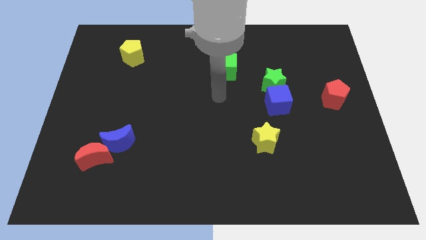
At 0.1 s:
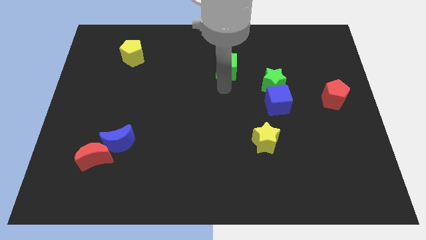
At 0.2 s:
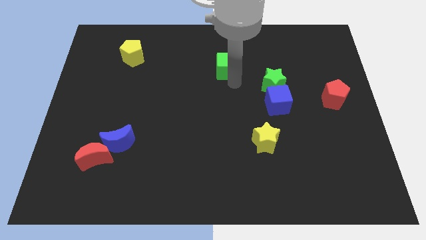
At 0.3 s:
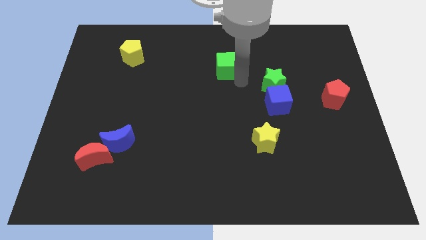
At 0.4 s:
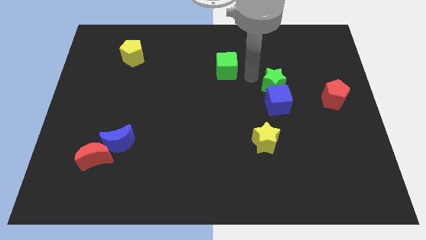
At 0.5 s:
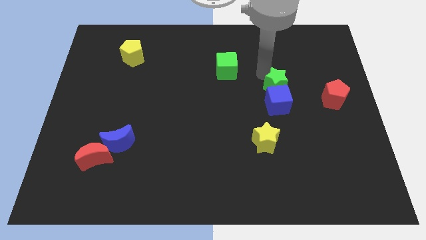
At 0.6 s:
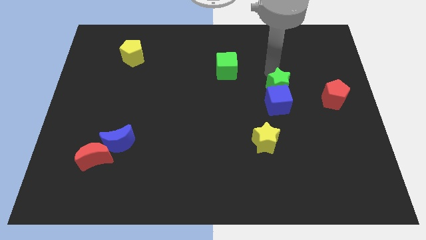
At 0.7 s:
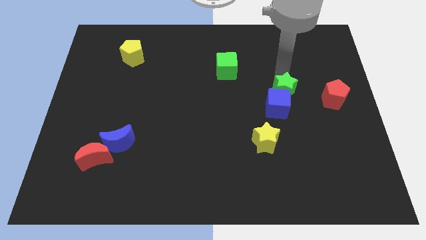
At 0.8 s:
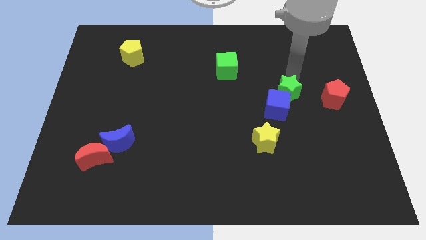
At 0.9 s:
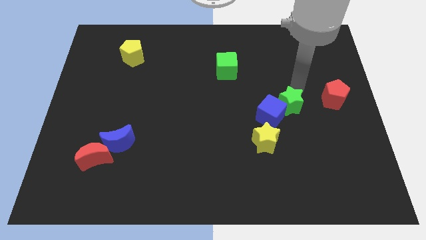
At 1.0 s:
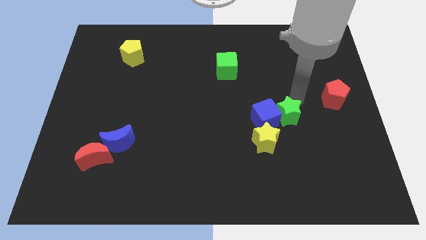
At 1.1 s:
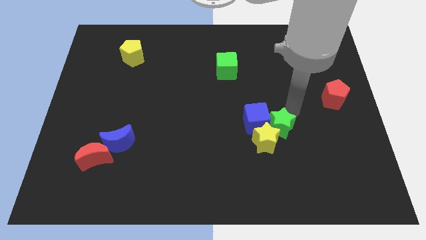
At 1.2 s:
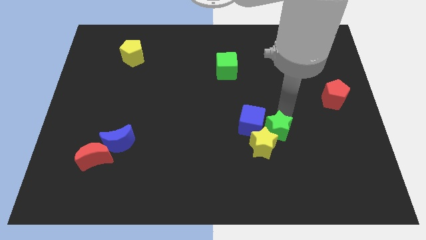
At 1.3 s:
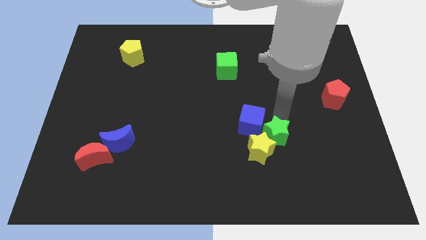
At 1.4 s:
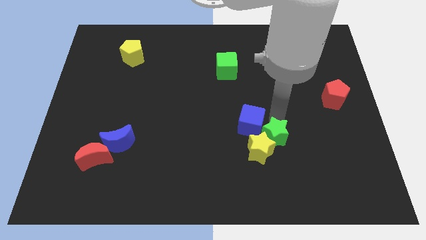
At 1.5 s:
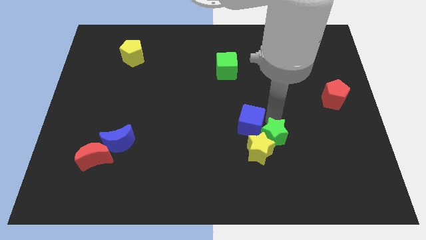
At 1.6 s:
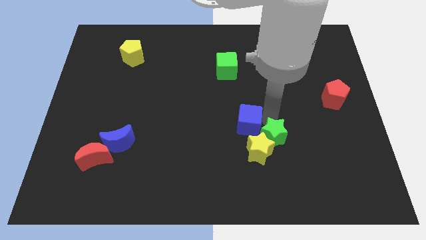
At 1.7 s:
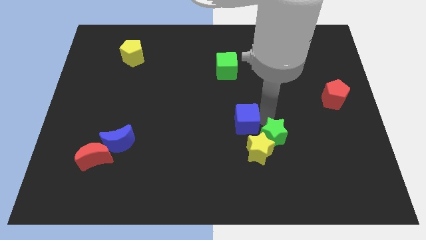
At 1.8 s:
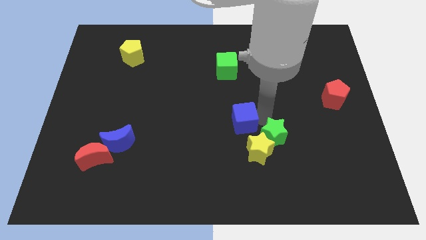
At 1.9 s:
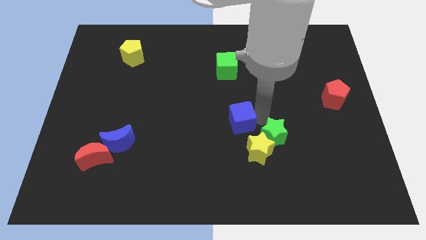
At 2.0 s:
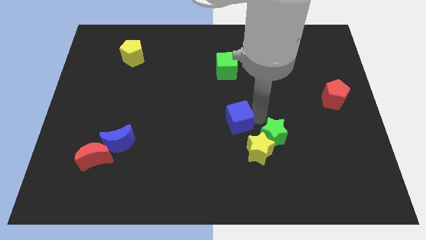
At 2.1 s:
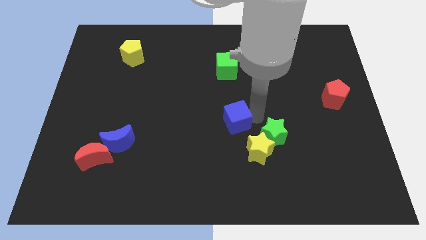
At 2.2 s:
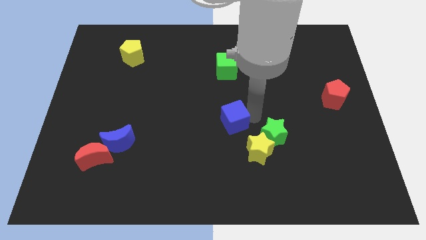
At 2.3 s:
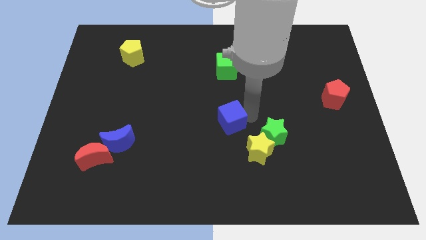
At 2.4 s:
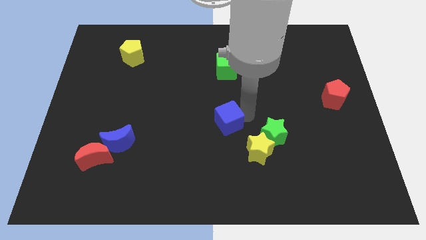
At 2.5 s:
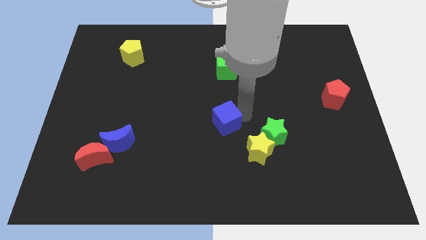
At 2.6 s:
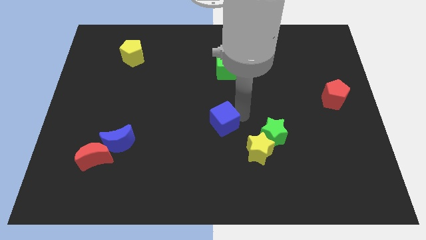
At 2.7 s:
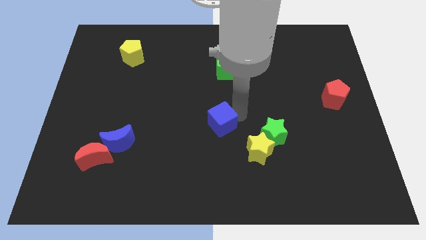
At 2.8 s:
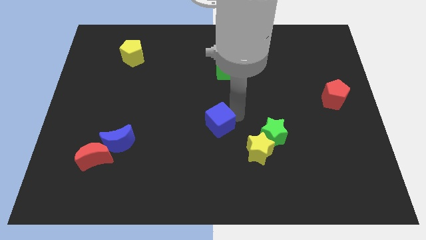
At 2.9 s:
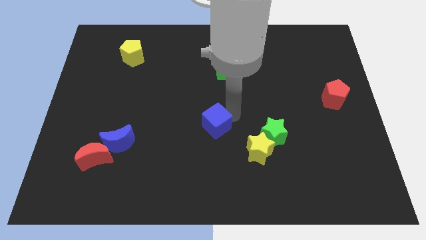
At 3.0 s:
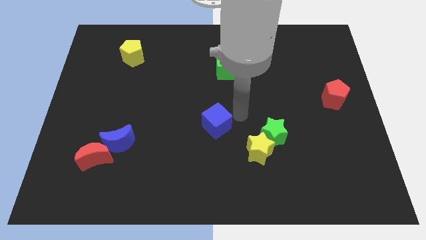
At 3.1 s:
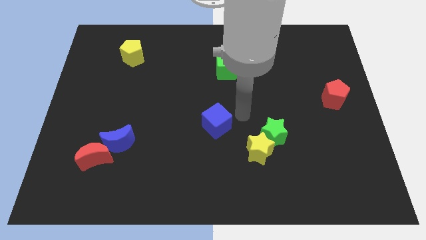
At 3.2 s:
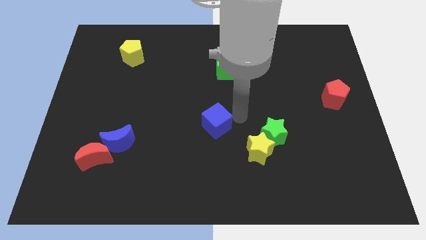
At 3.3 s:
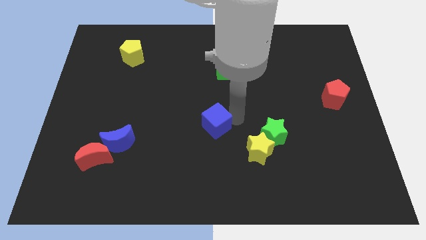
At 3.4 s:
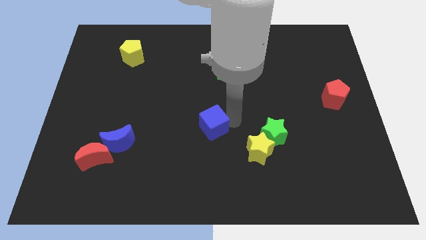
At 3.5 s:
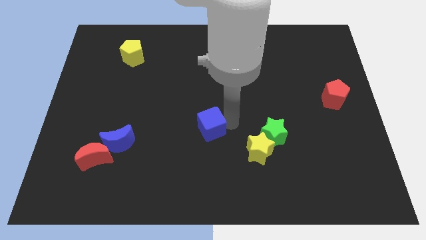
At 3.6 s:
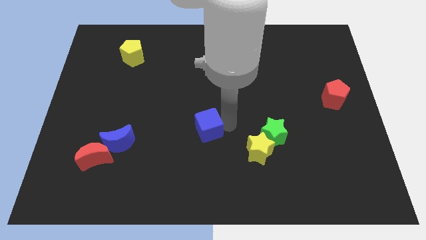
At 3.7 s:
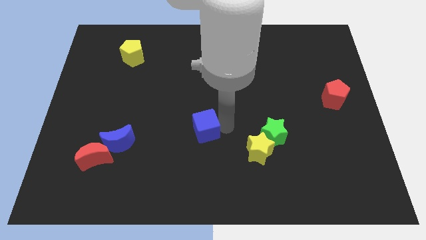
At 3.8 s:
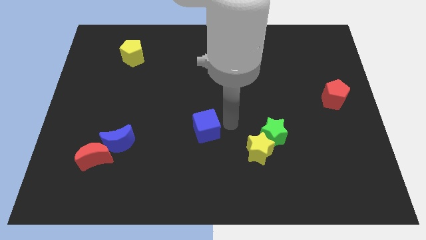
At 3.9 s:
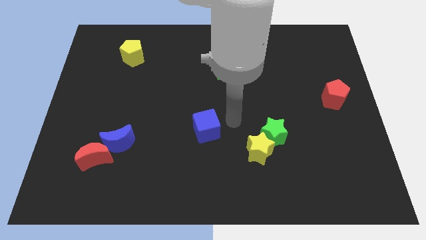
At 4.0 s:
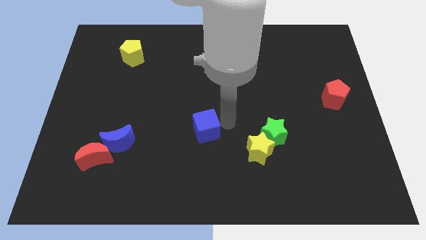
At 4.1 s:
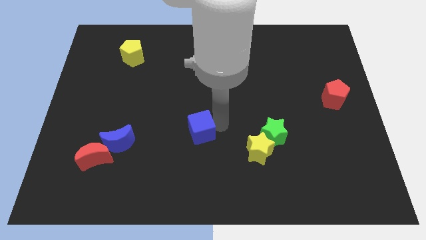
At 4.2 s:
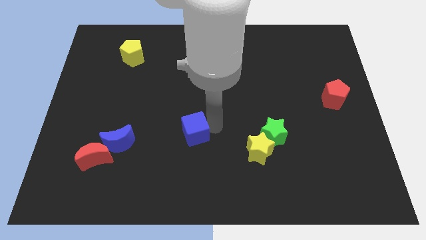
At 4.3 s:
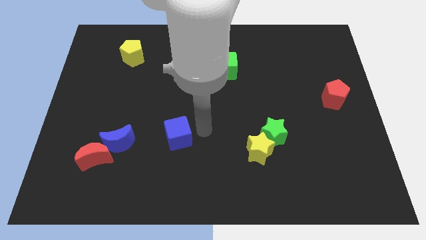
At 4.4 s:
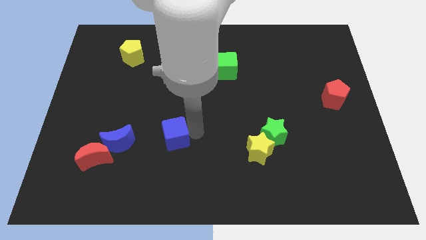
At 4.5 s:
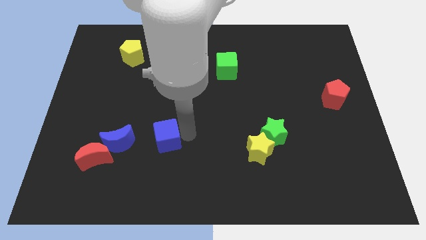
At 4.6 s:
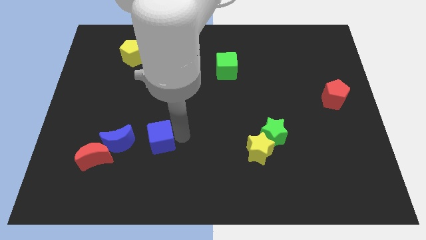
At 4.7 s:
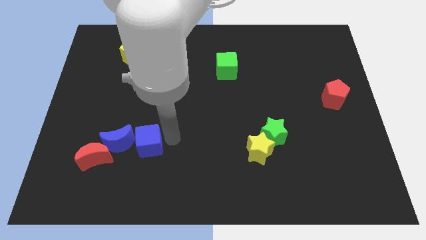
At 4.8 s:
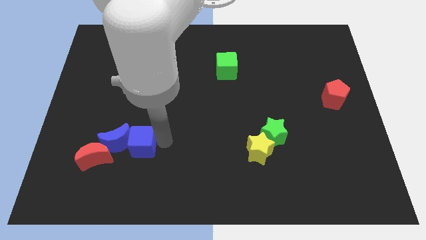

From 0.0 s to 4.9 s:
push the blue cube to the blue moon

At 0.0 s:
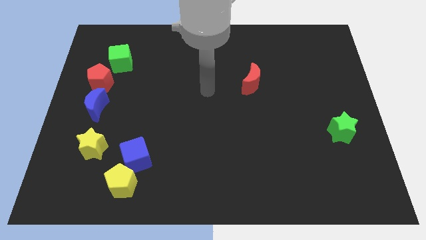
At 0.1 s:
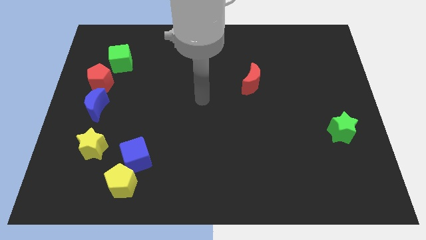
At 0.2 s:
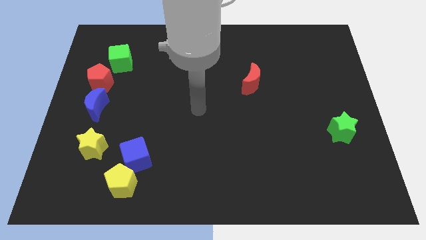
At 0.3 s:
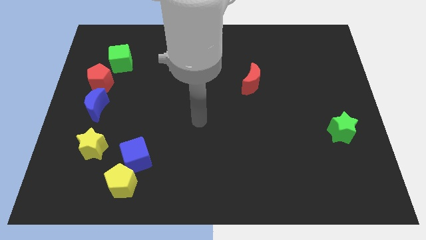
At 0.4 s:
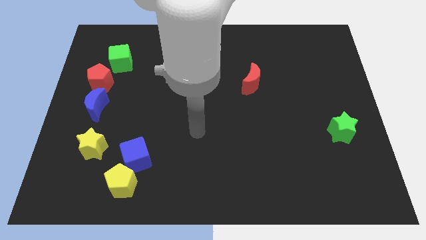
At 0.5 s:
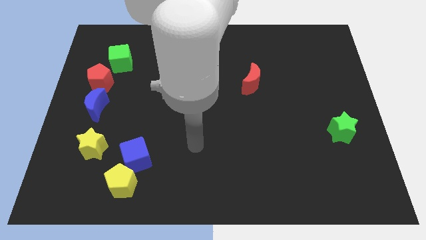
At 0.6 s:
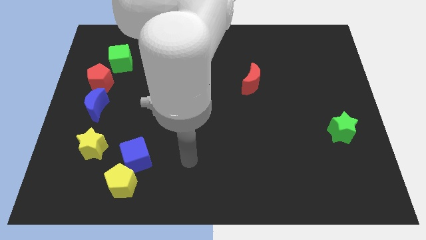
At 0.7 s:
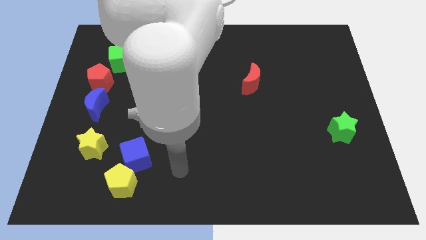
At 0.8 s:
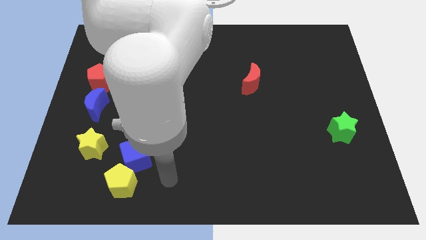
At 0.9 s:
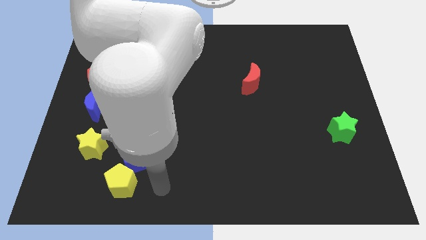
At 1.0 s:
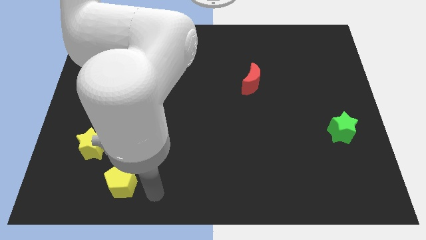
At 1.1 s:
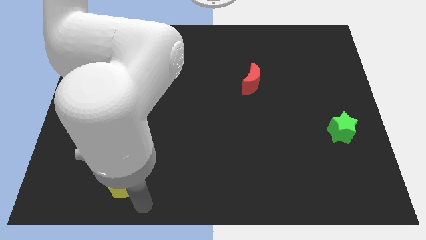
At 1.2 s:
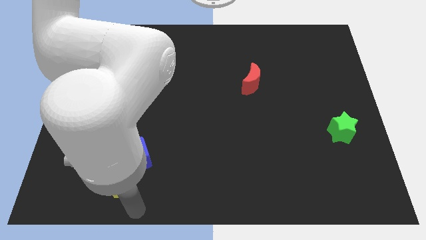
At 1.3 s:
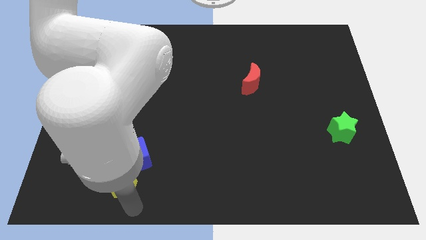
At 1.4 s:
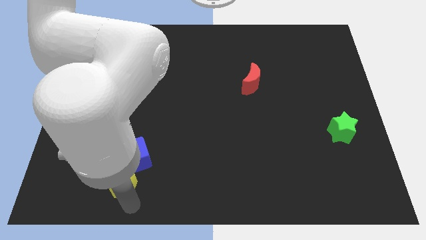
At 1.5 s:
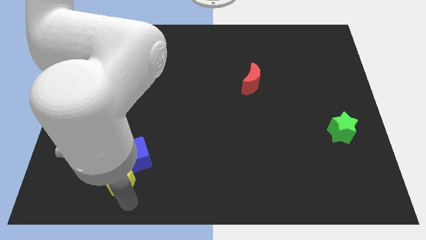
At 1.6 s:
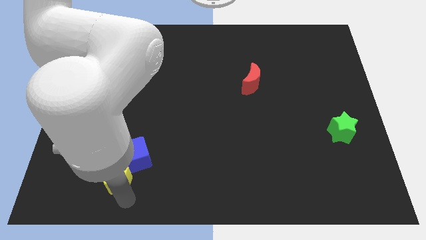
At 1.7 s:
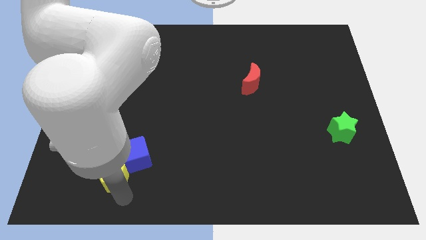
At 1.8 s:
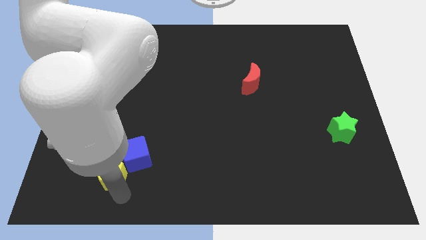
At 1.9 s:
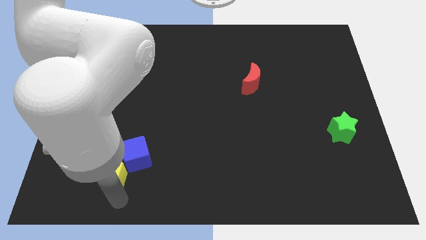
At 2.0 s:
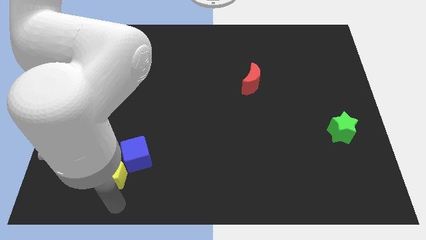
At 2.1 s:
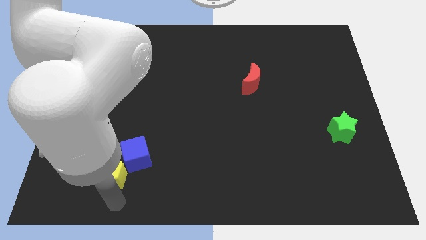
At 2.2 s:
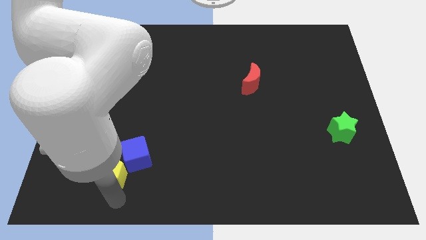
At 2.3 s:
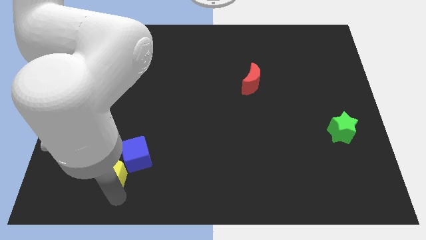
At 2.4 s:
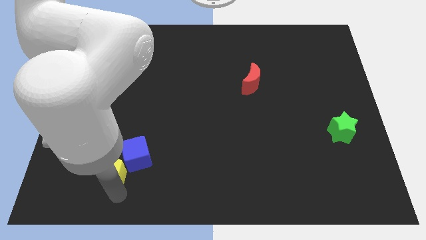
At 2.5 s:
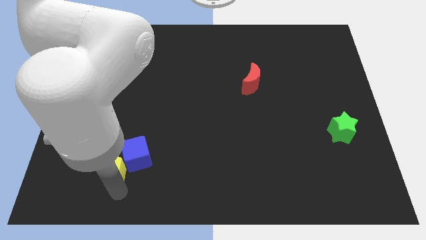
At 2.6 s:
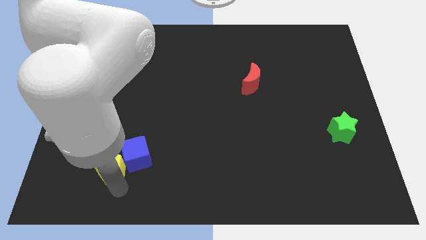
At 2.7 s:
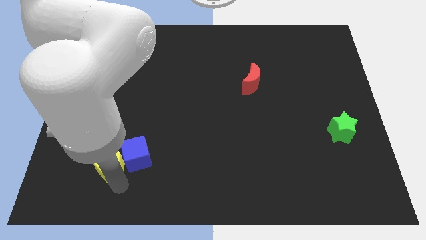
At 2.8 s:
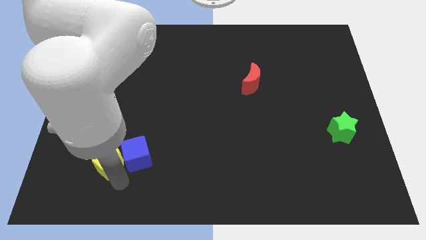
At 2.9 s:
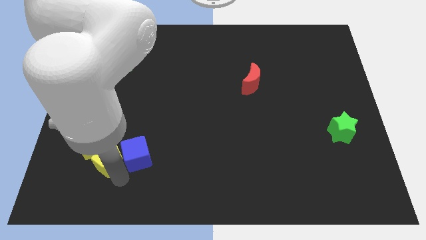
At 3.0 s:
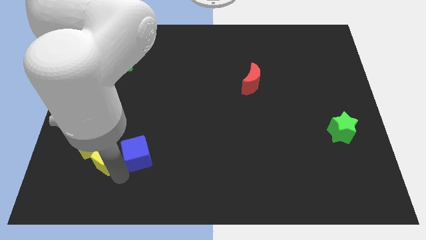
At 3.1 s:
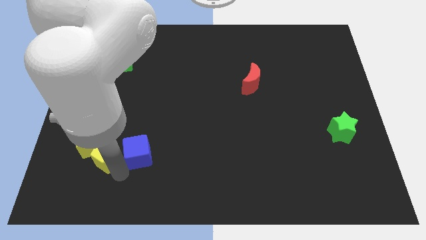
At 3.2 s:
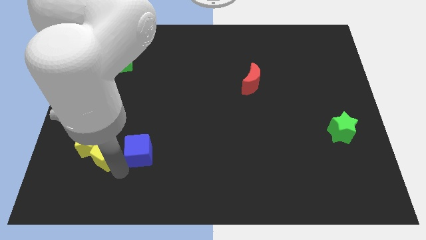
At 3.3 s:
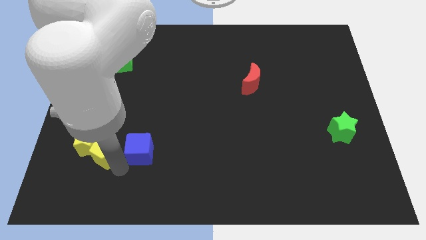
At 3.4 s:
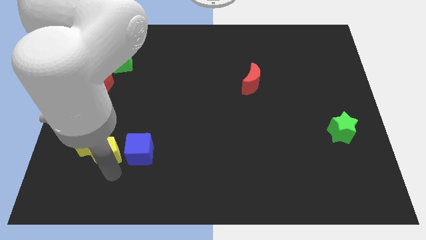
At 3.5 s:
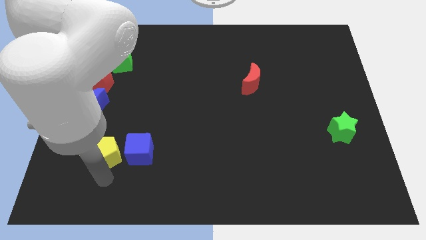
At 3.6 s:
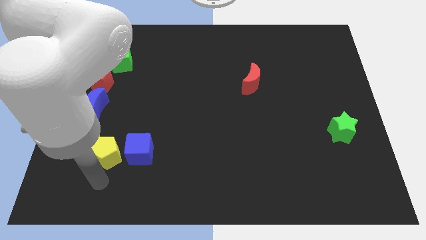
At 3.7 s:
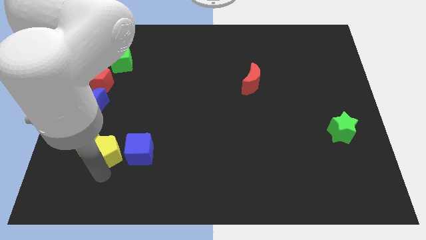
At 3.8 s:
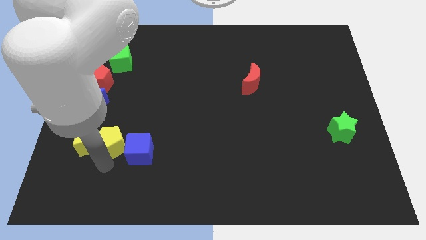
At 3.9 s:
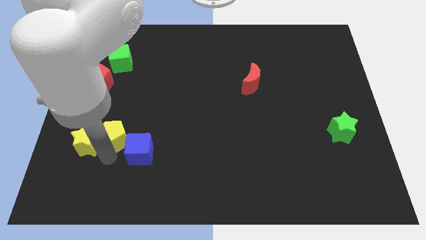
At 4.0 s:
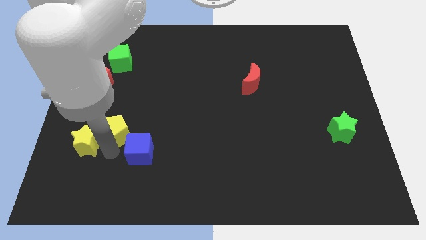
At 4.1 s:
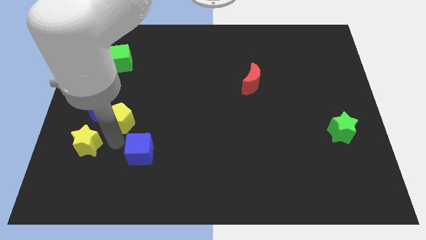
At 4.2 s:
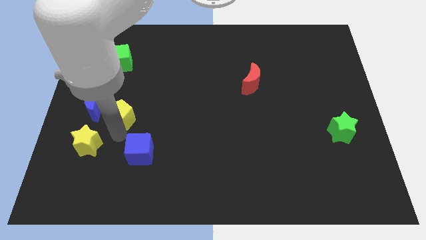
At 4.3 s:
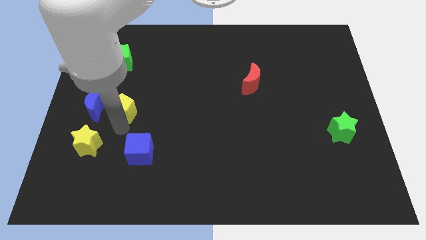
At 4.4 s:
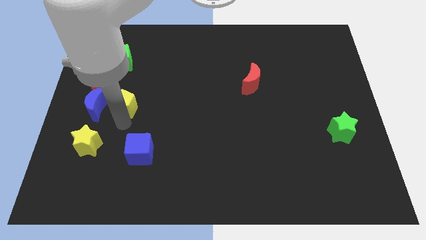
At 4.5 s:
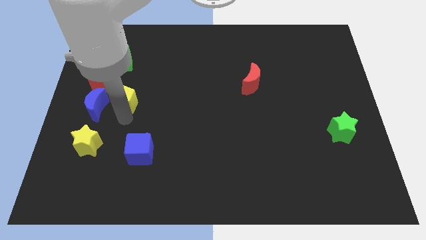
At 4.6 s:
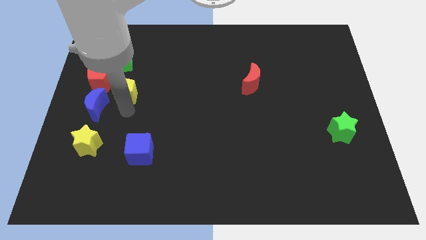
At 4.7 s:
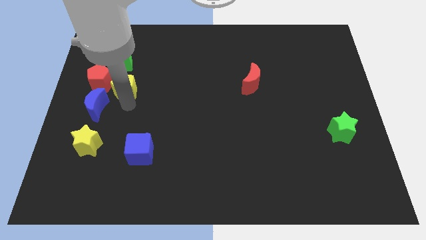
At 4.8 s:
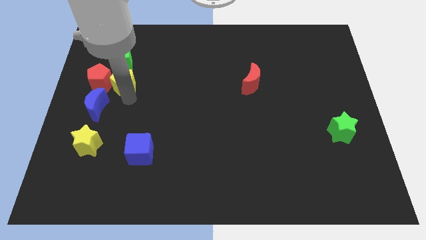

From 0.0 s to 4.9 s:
slide the yellow pentagon to the red pentagon
